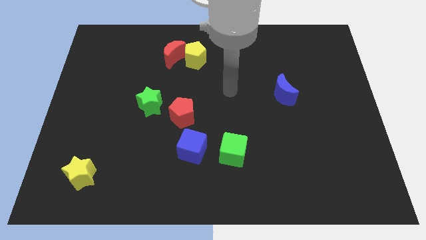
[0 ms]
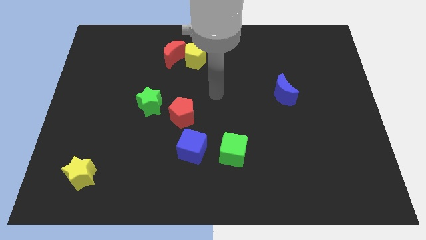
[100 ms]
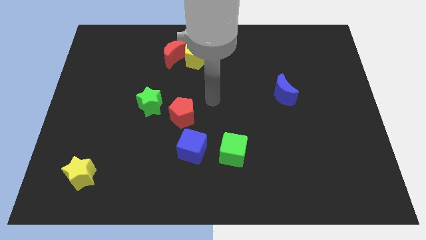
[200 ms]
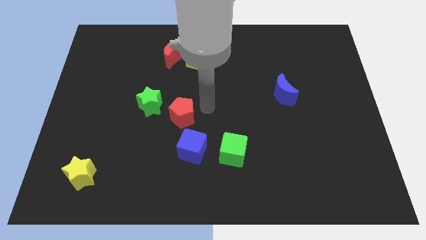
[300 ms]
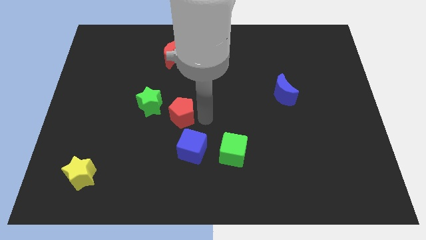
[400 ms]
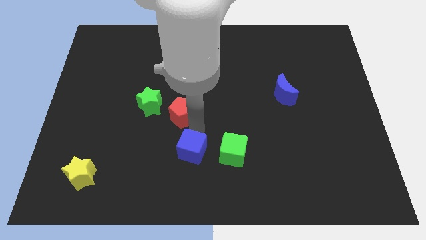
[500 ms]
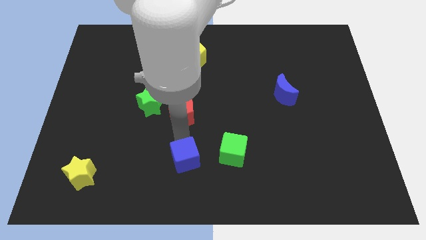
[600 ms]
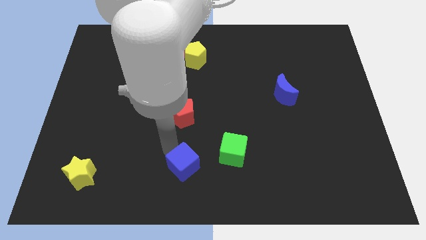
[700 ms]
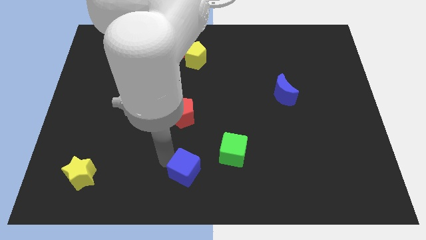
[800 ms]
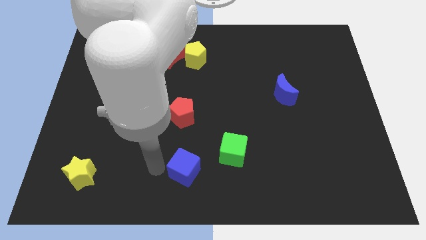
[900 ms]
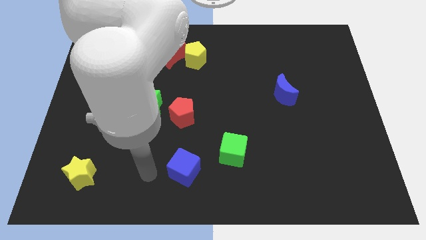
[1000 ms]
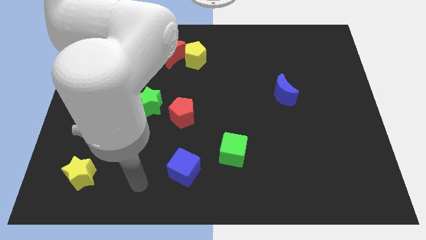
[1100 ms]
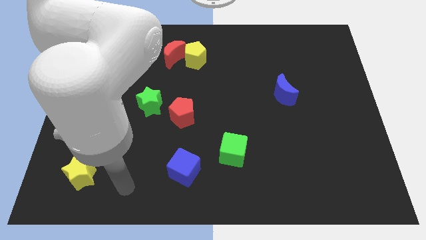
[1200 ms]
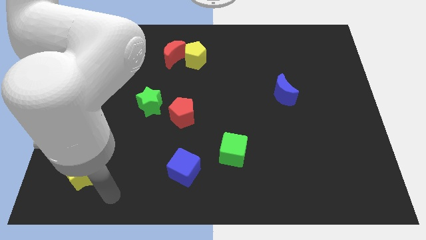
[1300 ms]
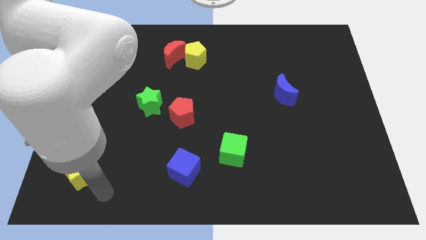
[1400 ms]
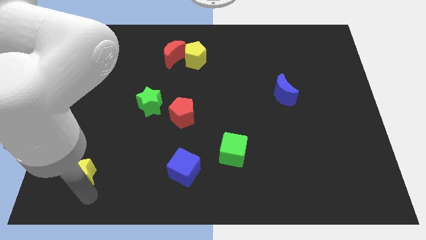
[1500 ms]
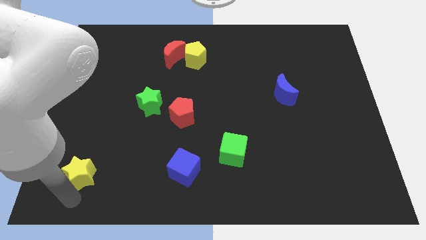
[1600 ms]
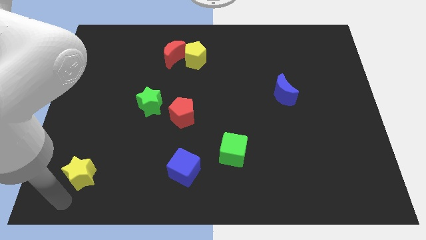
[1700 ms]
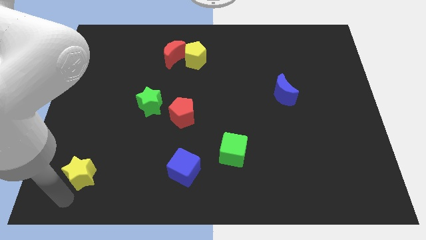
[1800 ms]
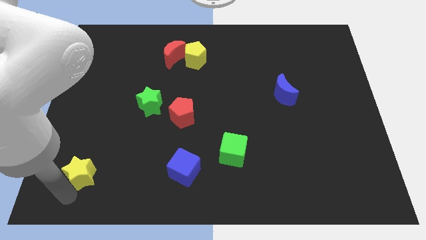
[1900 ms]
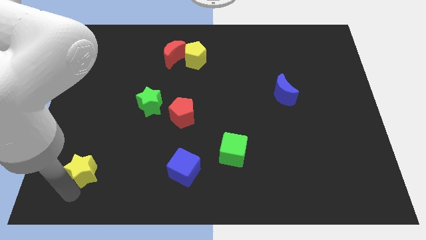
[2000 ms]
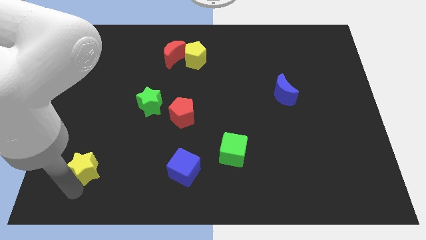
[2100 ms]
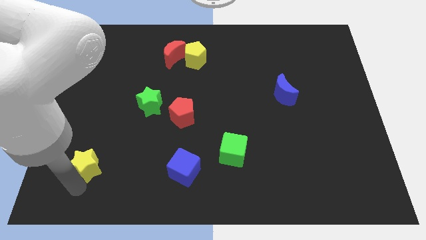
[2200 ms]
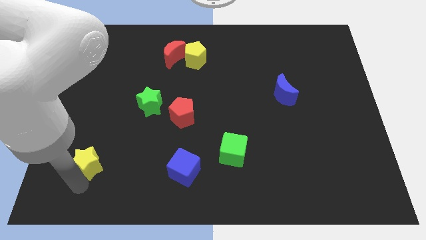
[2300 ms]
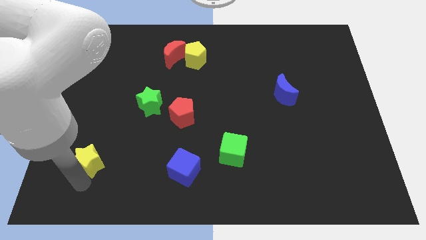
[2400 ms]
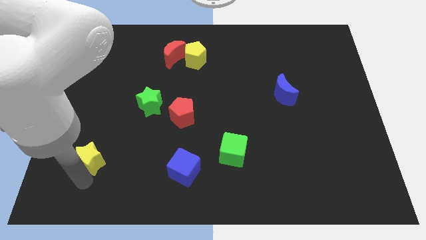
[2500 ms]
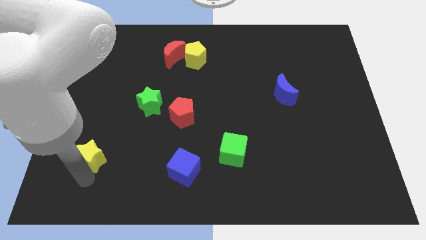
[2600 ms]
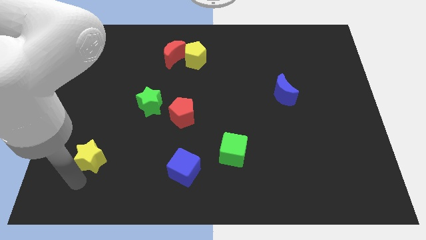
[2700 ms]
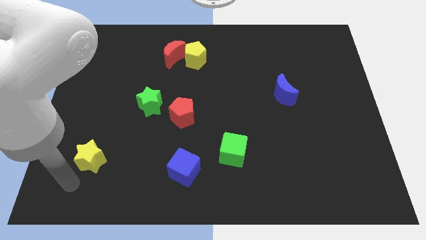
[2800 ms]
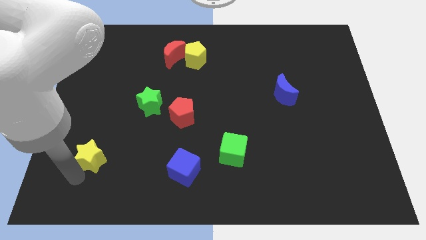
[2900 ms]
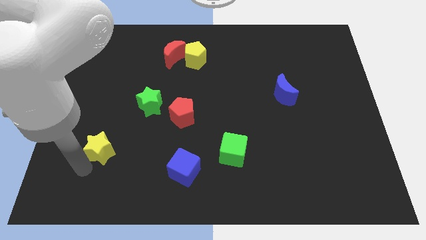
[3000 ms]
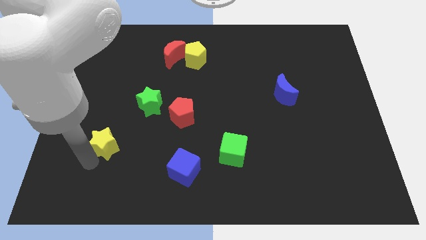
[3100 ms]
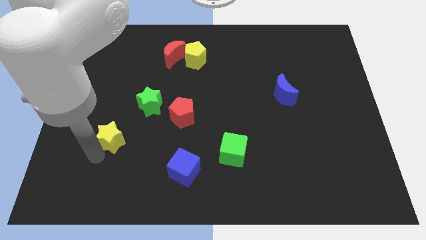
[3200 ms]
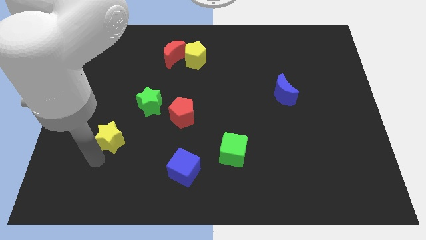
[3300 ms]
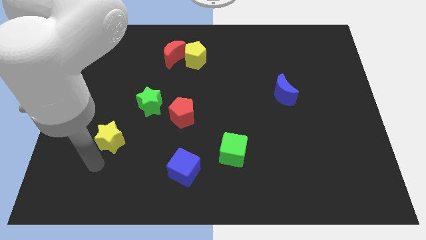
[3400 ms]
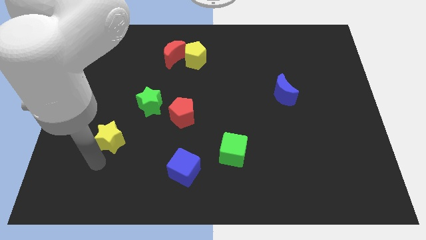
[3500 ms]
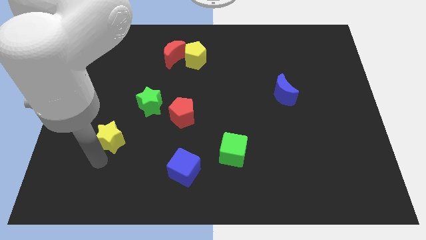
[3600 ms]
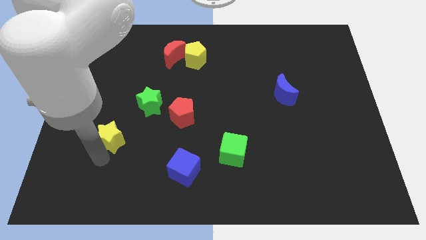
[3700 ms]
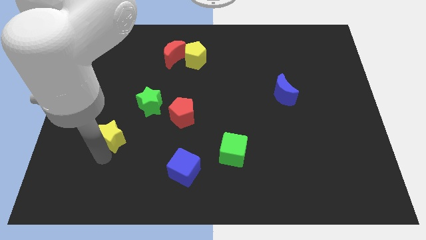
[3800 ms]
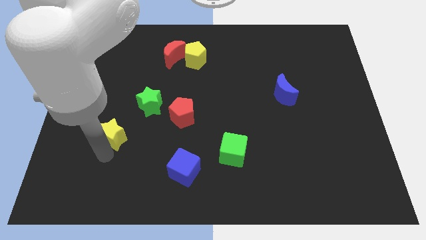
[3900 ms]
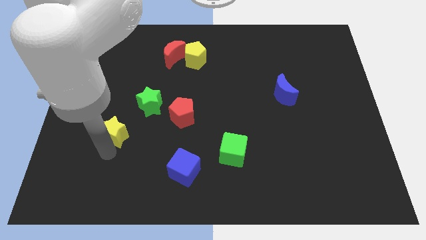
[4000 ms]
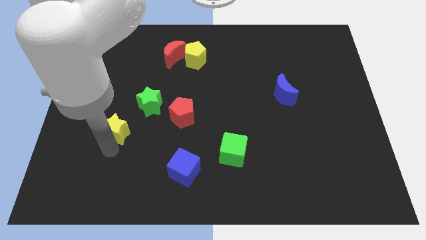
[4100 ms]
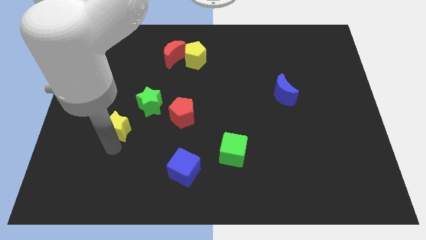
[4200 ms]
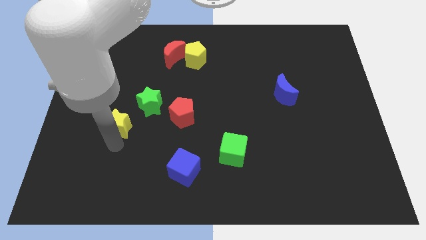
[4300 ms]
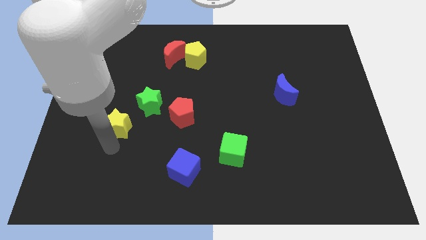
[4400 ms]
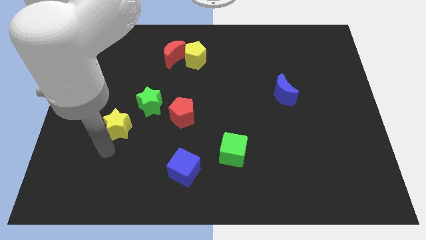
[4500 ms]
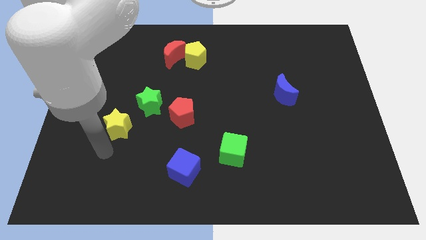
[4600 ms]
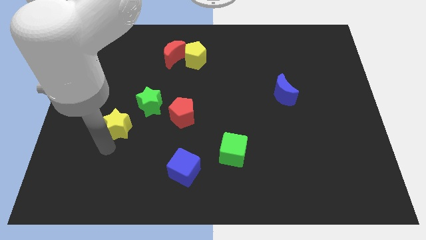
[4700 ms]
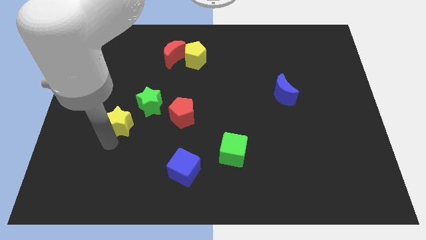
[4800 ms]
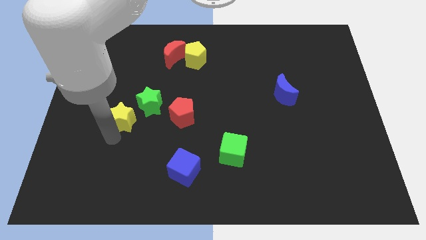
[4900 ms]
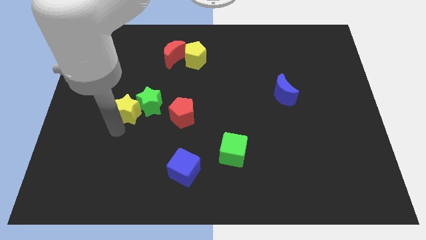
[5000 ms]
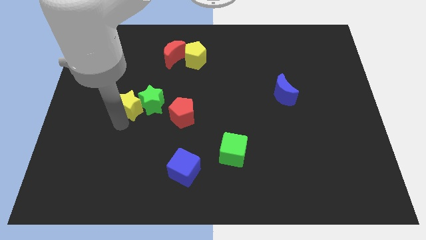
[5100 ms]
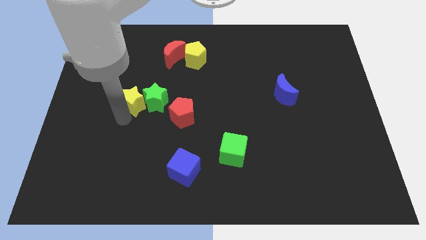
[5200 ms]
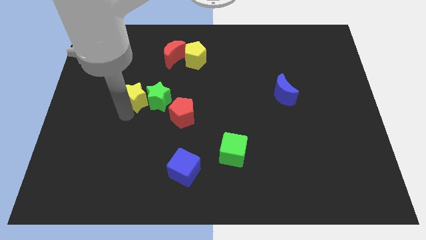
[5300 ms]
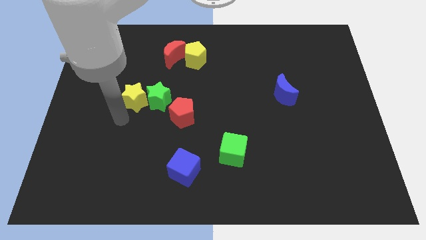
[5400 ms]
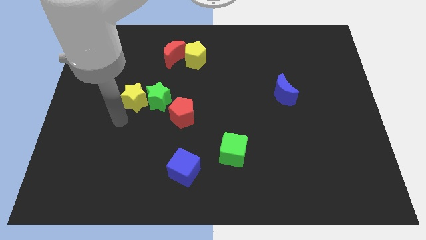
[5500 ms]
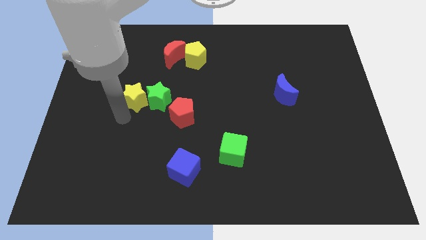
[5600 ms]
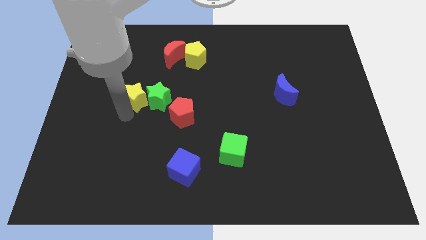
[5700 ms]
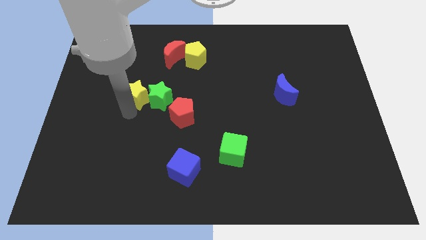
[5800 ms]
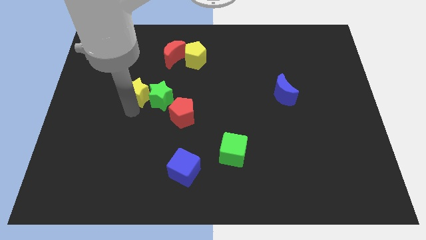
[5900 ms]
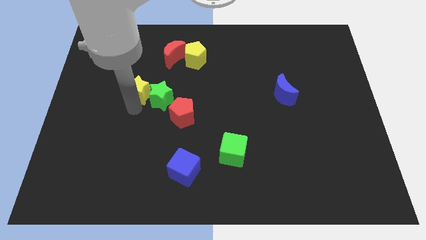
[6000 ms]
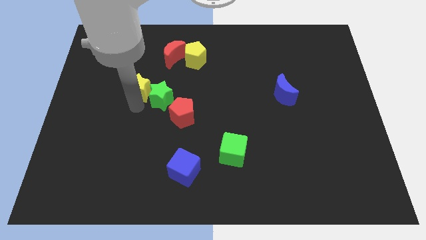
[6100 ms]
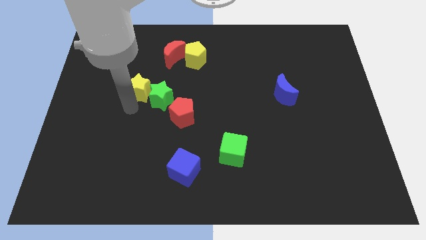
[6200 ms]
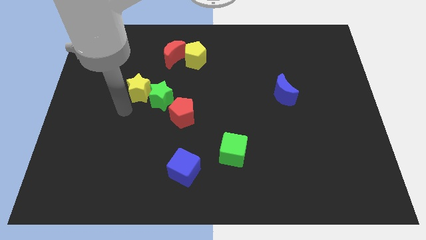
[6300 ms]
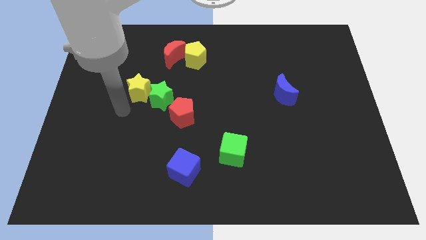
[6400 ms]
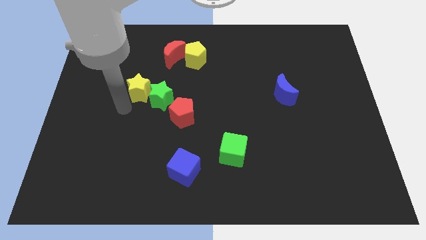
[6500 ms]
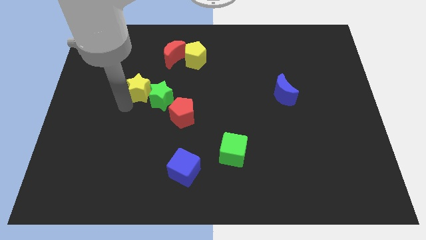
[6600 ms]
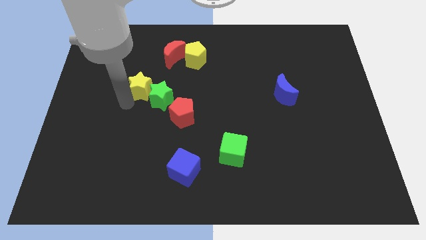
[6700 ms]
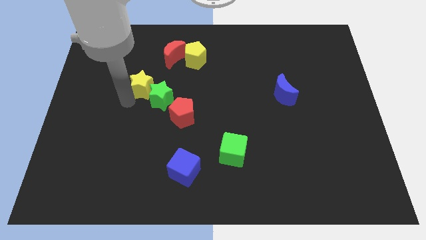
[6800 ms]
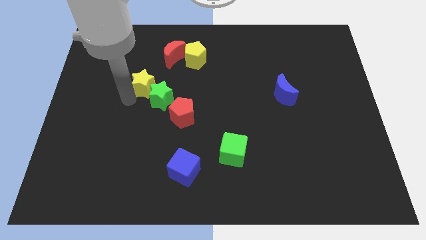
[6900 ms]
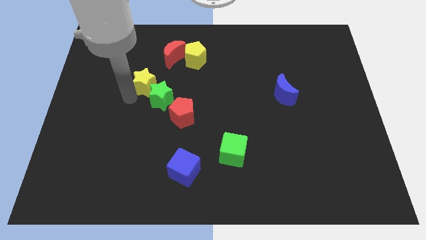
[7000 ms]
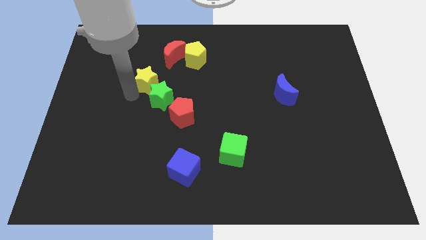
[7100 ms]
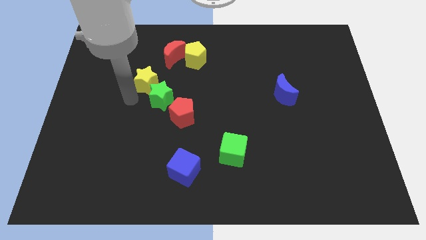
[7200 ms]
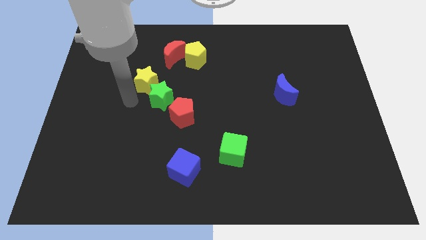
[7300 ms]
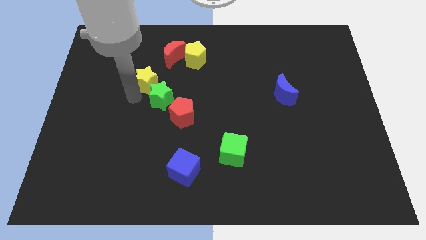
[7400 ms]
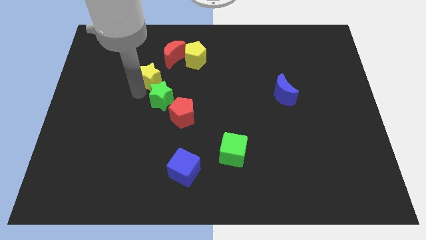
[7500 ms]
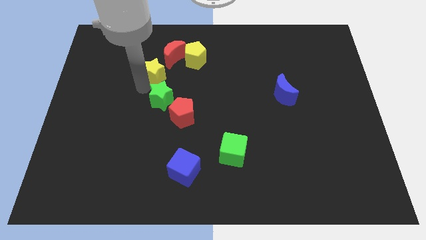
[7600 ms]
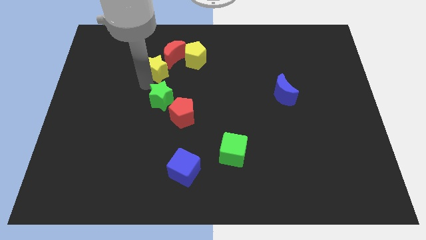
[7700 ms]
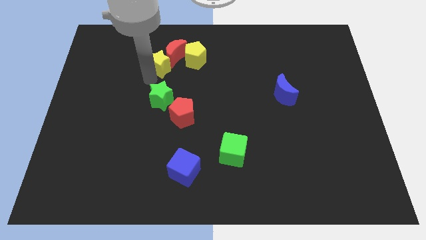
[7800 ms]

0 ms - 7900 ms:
slide the yellow star towards the red moon
